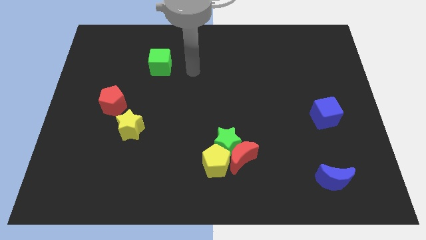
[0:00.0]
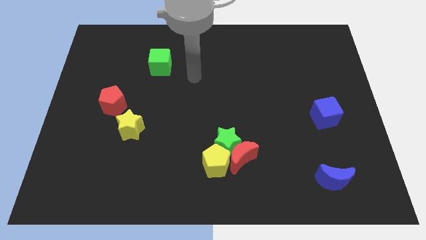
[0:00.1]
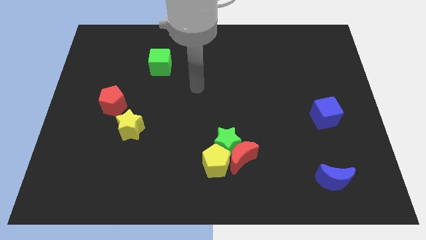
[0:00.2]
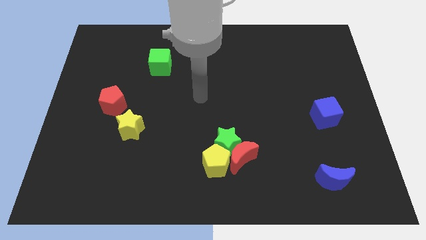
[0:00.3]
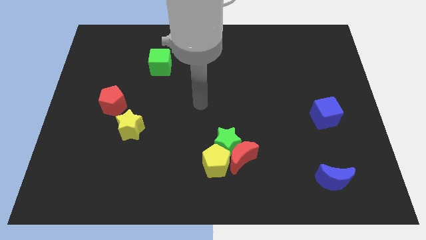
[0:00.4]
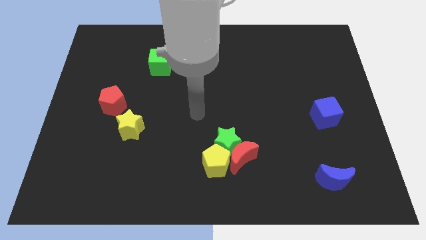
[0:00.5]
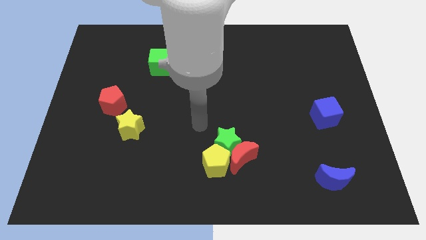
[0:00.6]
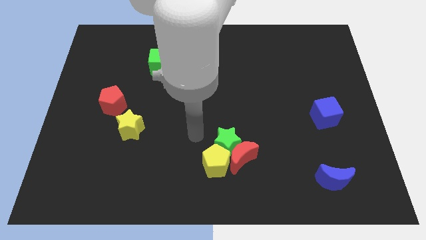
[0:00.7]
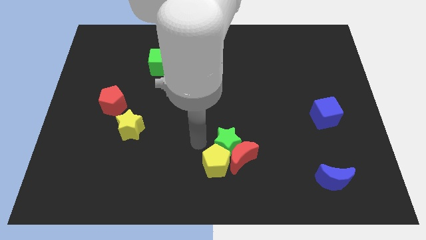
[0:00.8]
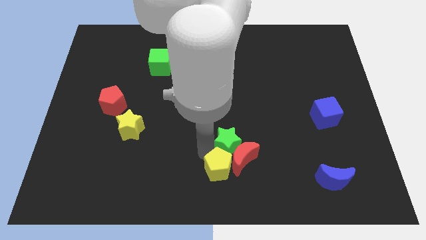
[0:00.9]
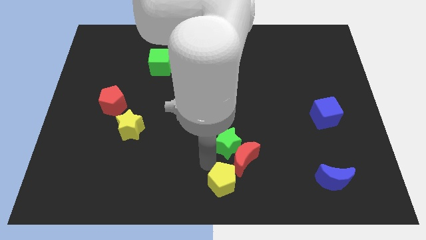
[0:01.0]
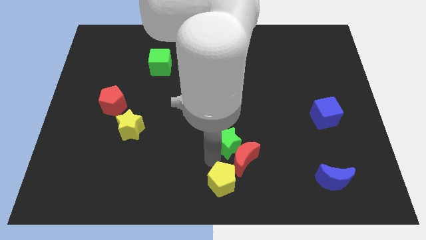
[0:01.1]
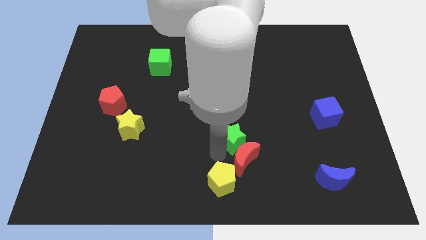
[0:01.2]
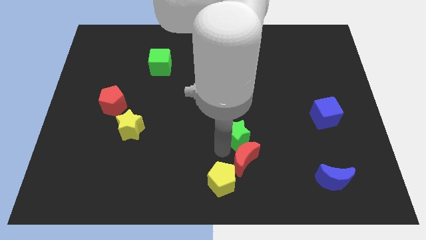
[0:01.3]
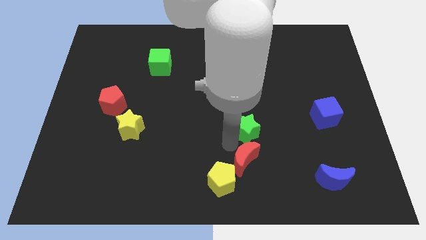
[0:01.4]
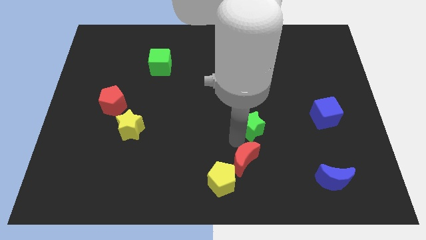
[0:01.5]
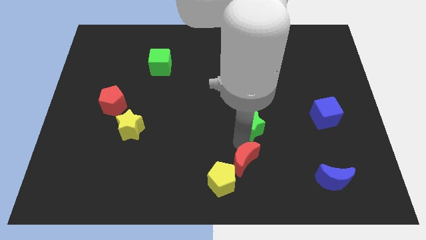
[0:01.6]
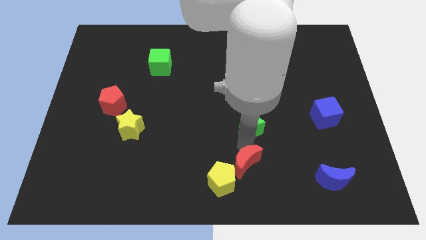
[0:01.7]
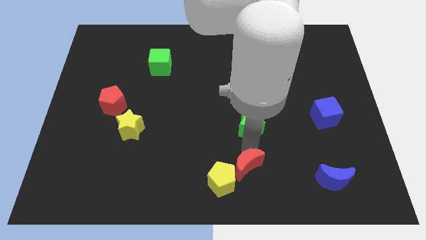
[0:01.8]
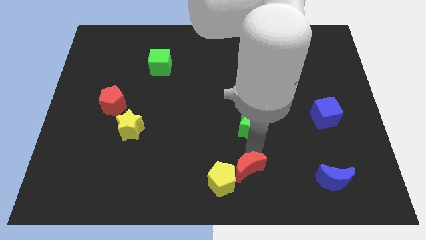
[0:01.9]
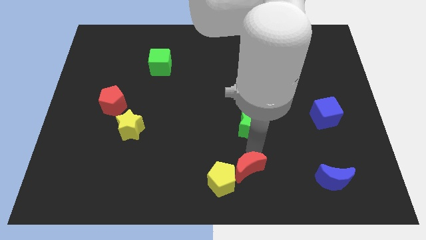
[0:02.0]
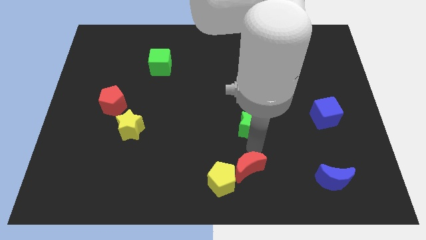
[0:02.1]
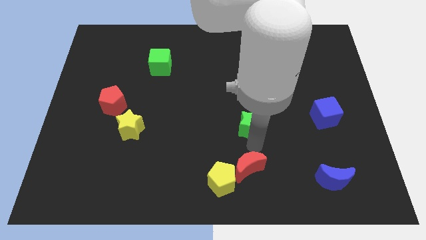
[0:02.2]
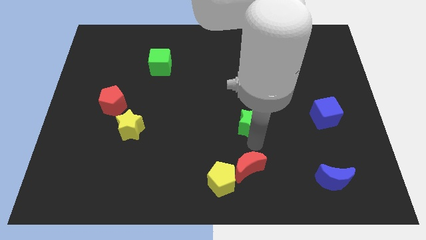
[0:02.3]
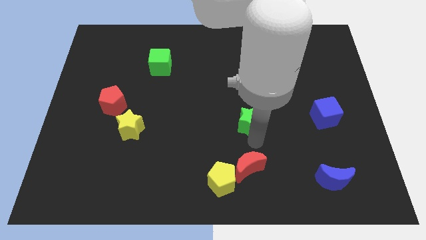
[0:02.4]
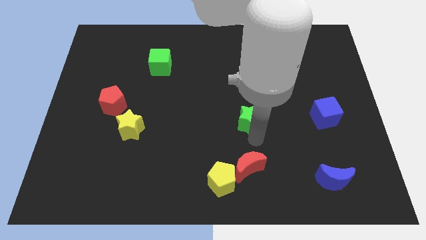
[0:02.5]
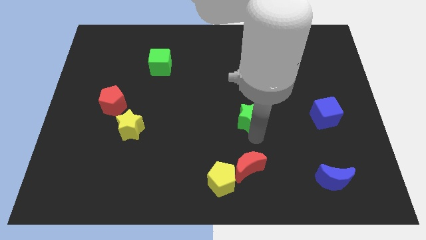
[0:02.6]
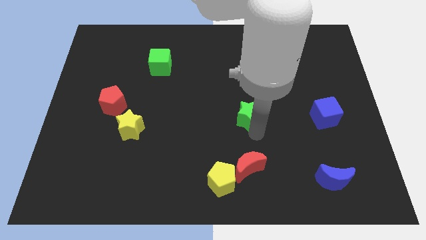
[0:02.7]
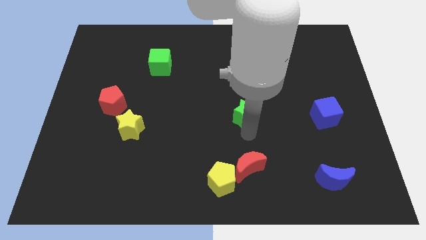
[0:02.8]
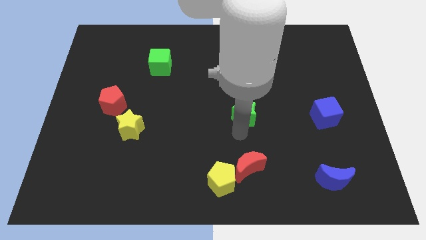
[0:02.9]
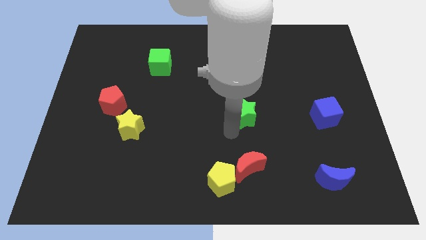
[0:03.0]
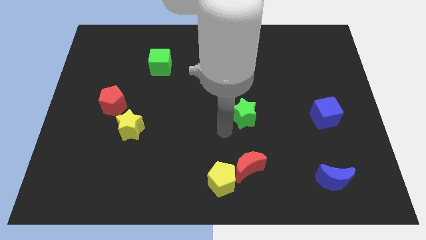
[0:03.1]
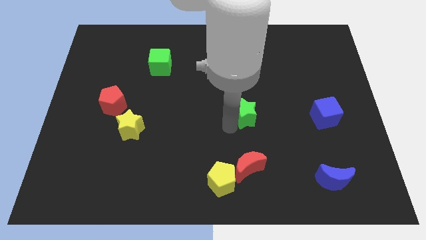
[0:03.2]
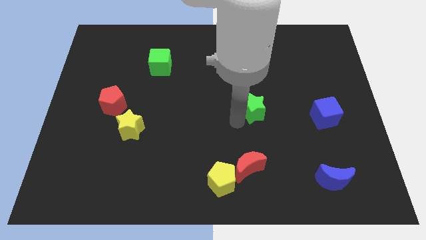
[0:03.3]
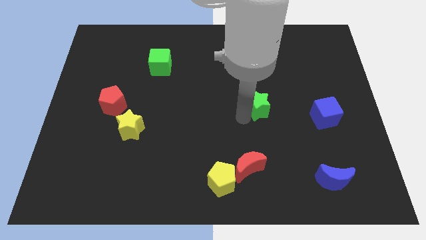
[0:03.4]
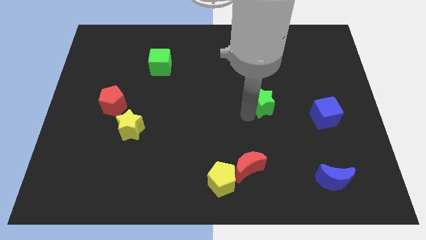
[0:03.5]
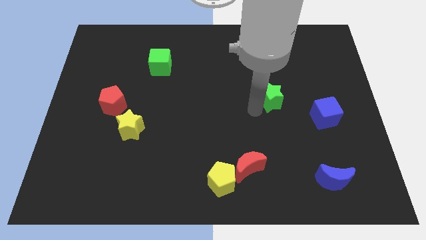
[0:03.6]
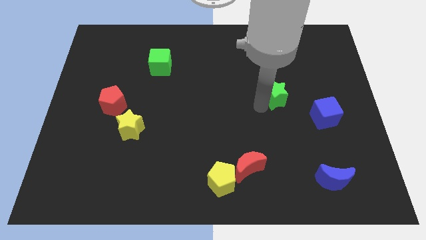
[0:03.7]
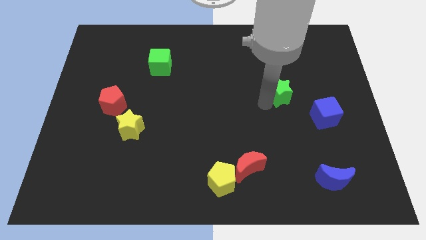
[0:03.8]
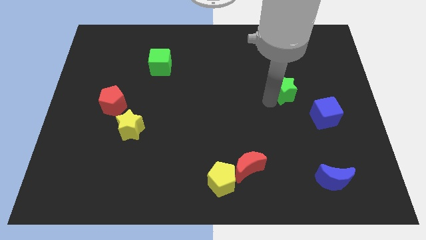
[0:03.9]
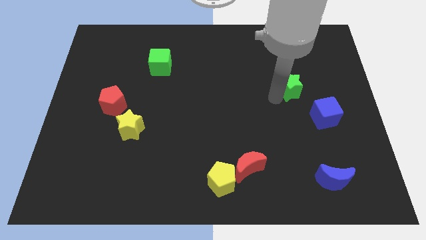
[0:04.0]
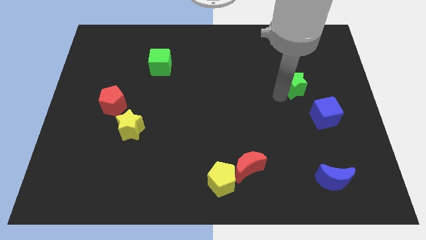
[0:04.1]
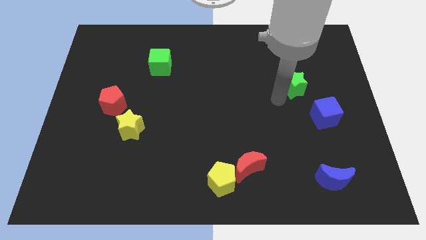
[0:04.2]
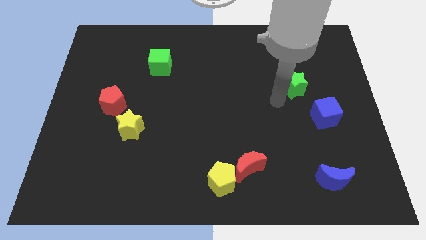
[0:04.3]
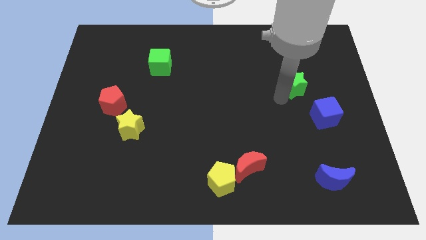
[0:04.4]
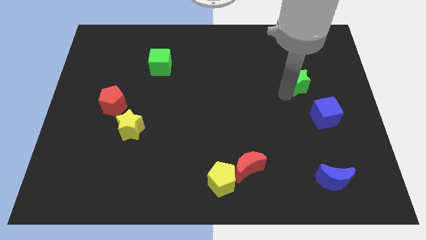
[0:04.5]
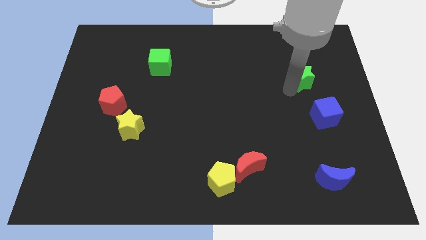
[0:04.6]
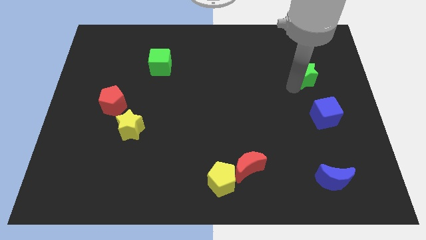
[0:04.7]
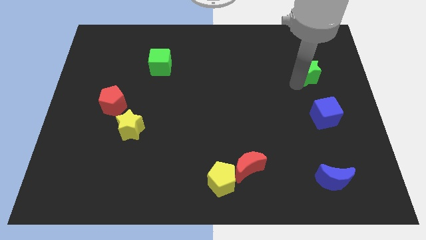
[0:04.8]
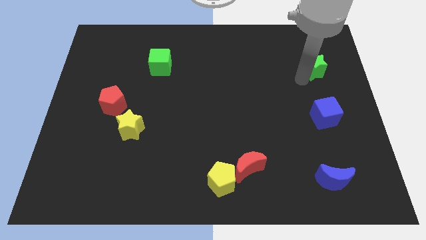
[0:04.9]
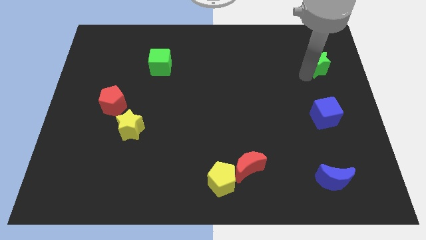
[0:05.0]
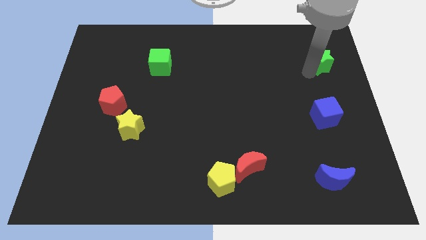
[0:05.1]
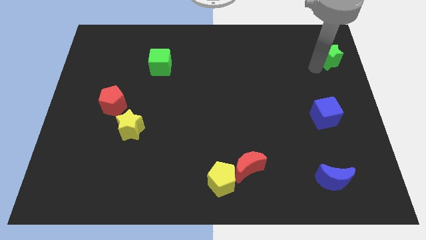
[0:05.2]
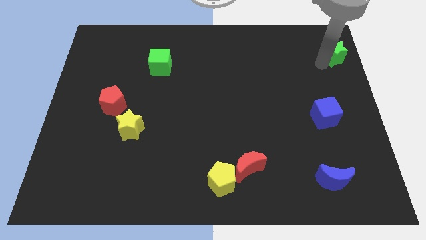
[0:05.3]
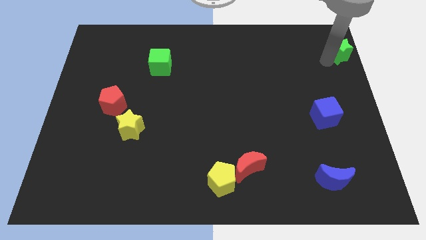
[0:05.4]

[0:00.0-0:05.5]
slide the green star to the upper right corner

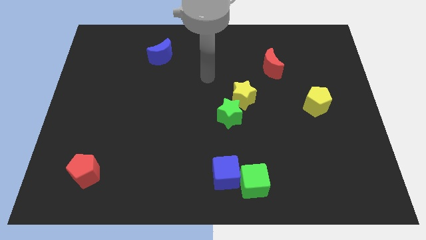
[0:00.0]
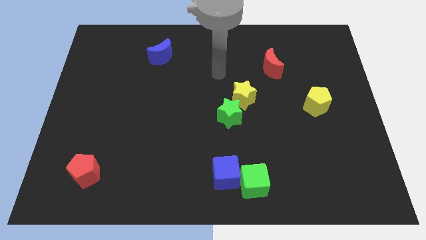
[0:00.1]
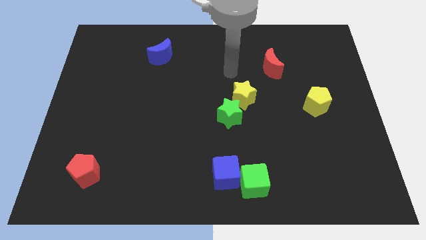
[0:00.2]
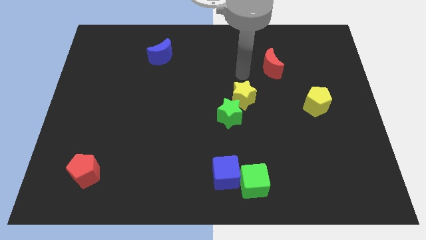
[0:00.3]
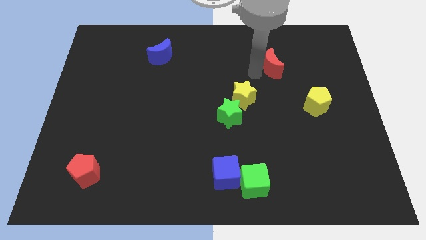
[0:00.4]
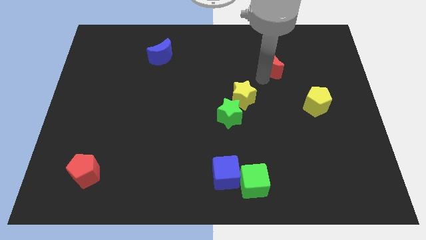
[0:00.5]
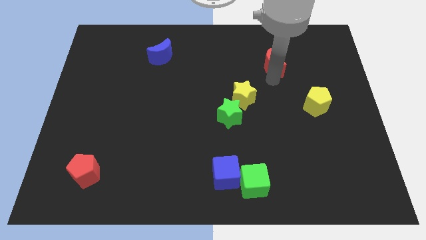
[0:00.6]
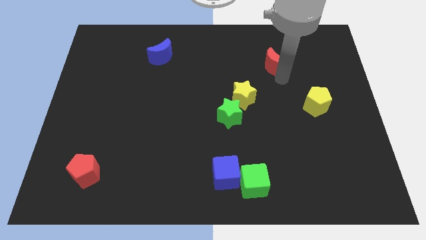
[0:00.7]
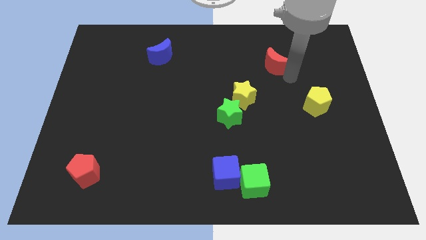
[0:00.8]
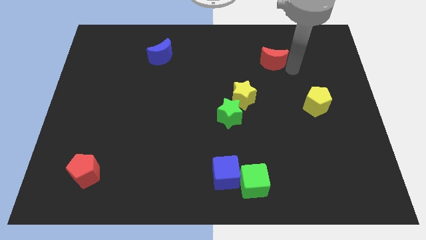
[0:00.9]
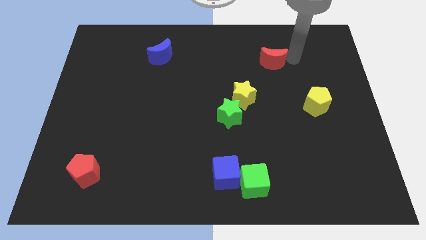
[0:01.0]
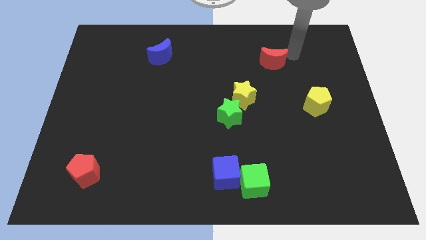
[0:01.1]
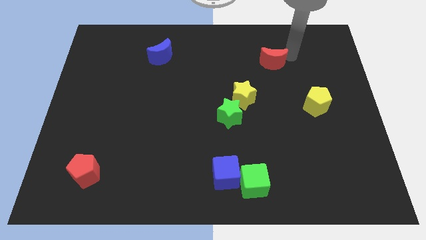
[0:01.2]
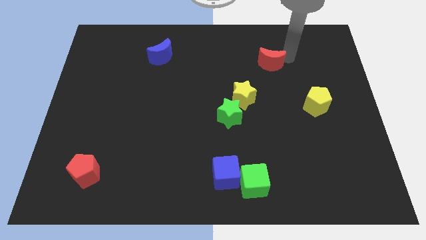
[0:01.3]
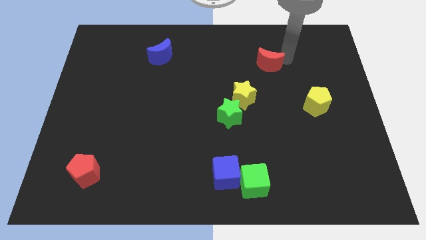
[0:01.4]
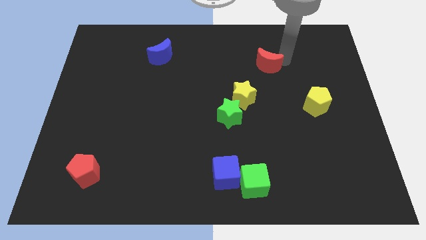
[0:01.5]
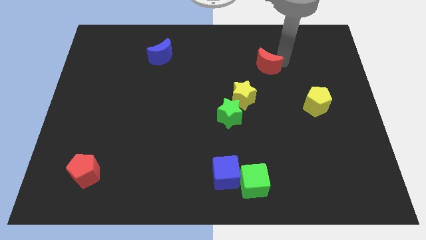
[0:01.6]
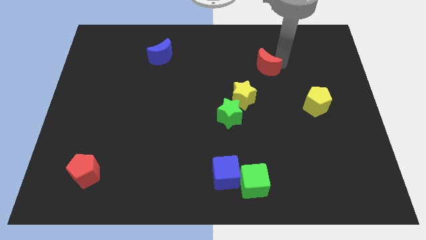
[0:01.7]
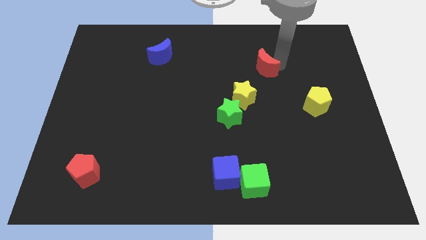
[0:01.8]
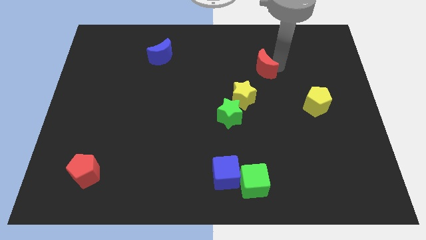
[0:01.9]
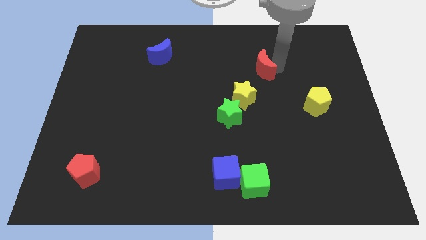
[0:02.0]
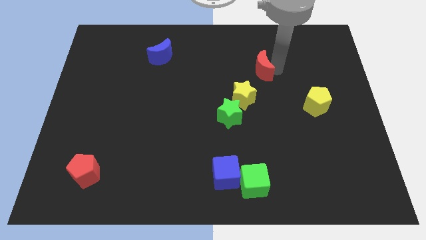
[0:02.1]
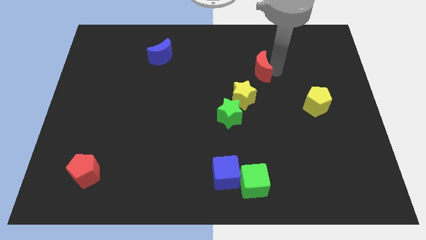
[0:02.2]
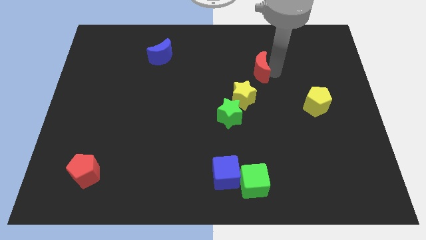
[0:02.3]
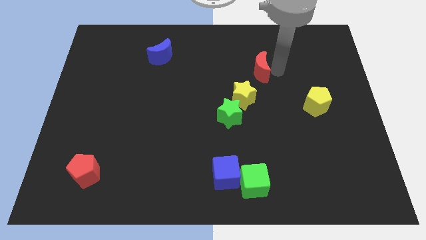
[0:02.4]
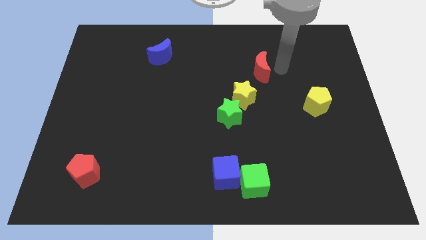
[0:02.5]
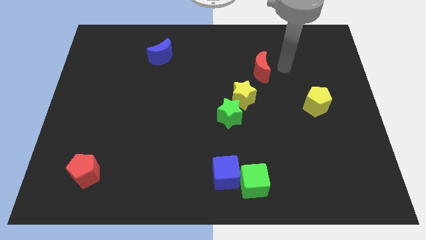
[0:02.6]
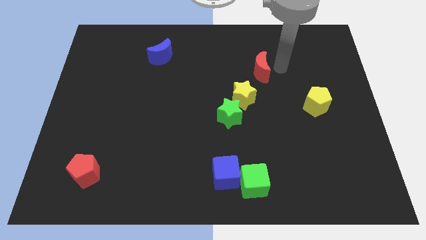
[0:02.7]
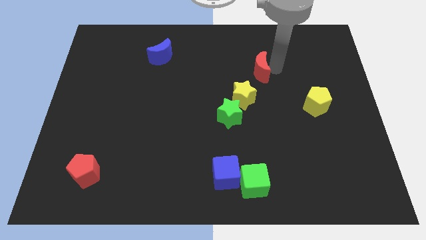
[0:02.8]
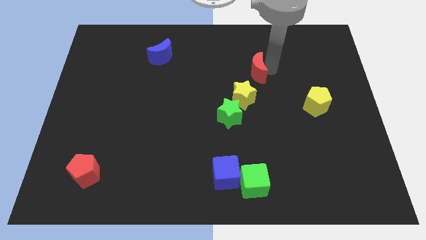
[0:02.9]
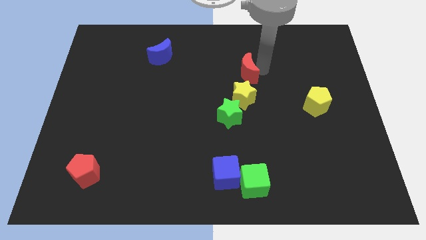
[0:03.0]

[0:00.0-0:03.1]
put the red moon to the middle of the board
